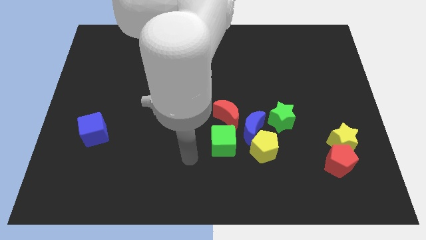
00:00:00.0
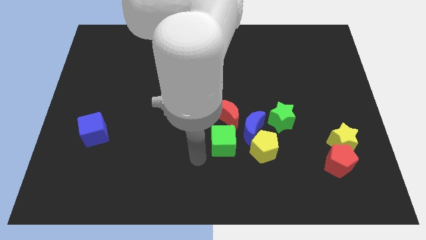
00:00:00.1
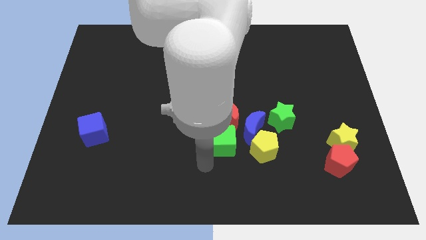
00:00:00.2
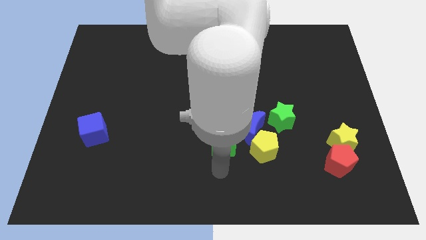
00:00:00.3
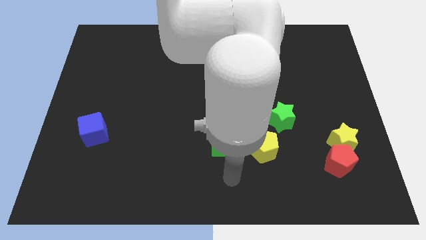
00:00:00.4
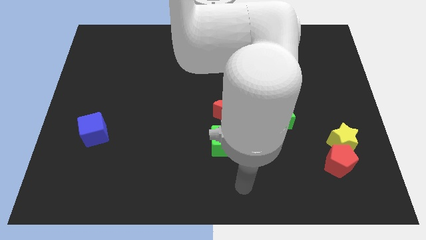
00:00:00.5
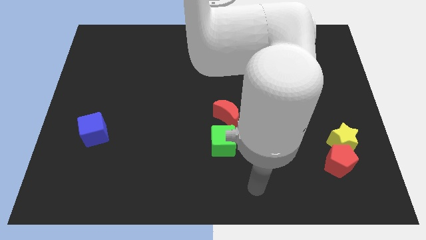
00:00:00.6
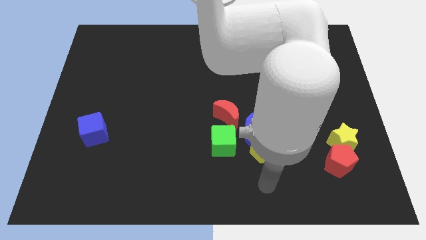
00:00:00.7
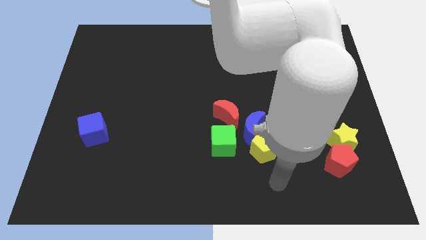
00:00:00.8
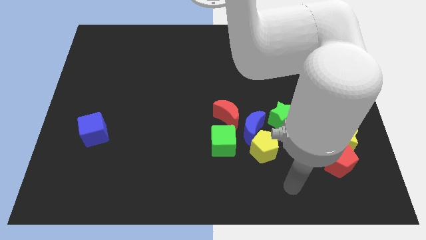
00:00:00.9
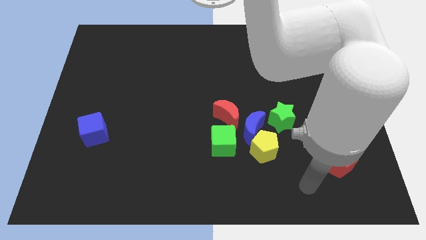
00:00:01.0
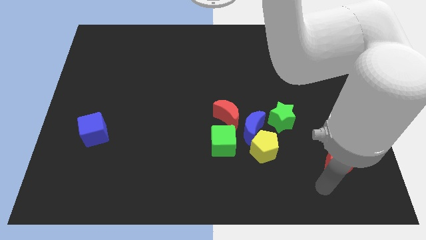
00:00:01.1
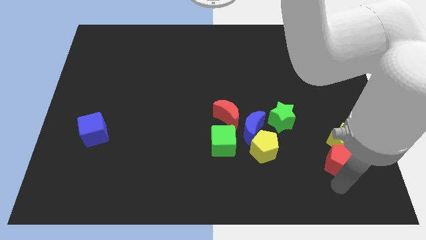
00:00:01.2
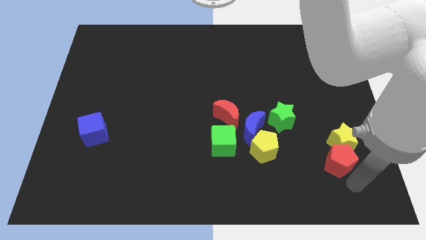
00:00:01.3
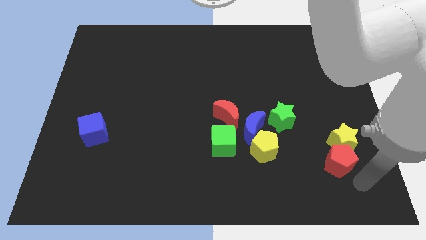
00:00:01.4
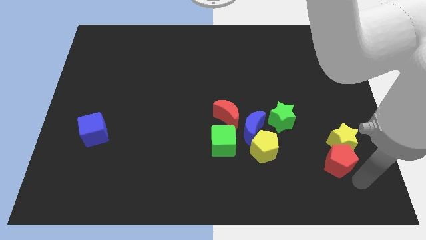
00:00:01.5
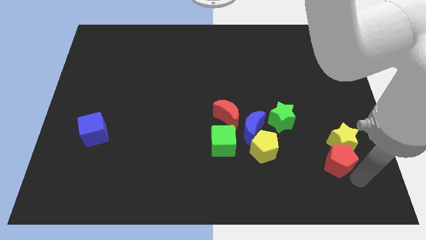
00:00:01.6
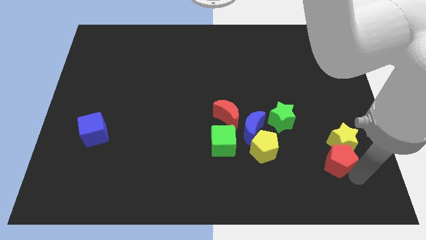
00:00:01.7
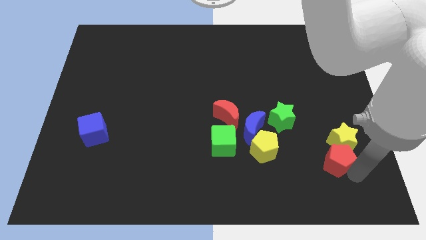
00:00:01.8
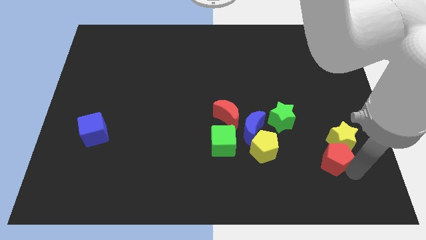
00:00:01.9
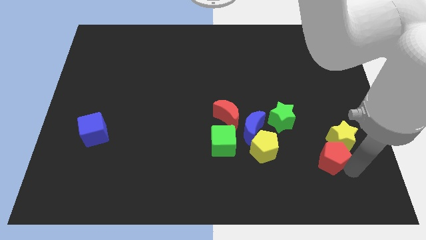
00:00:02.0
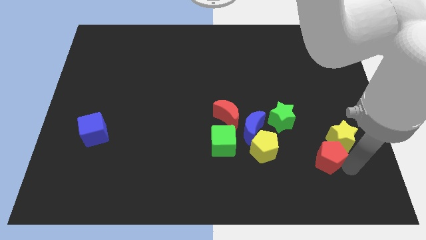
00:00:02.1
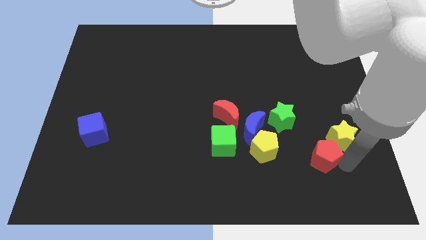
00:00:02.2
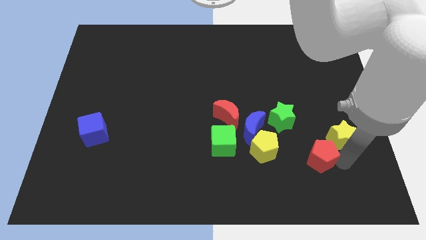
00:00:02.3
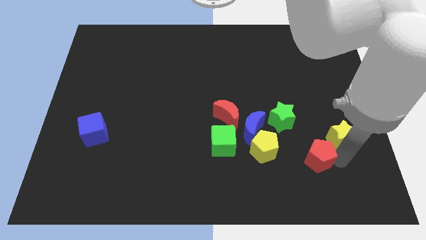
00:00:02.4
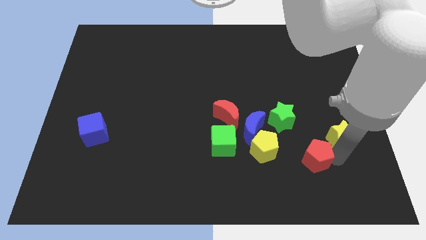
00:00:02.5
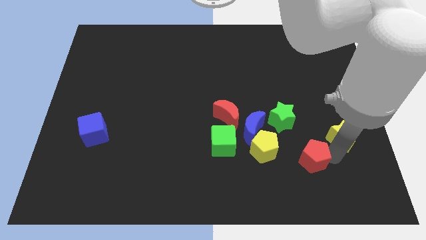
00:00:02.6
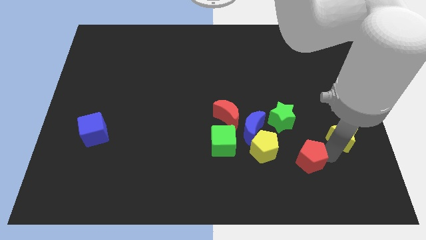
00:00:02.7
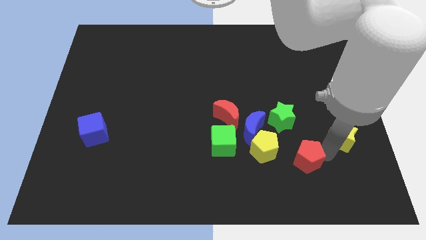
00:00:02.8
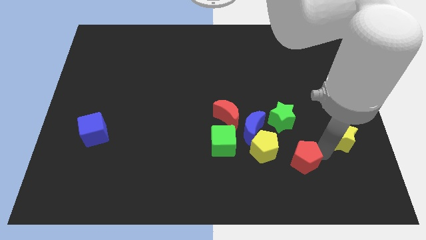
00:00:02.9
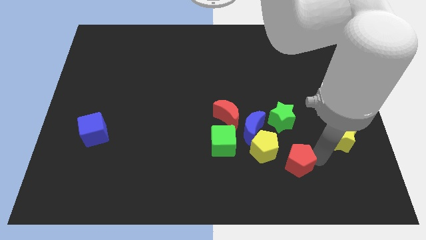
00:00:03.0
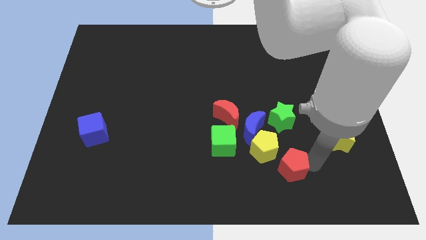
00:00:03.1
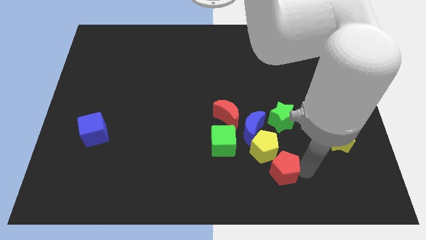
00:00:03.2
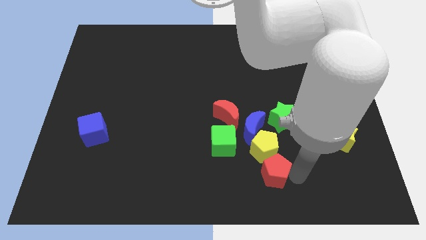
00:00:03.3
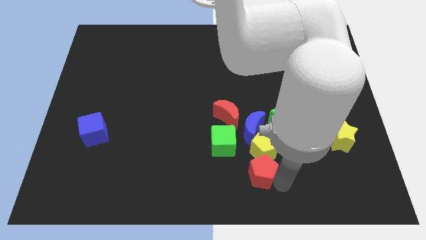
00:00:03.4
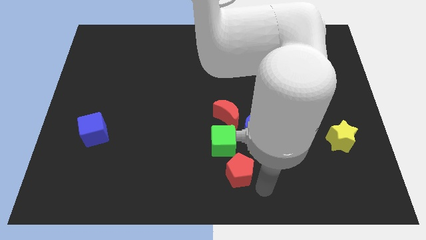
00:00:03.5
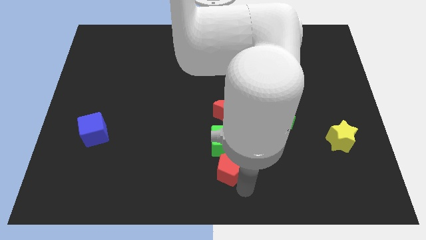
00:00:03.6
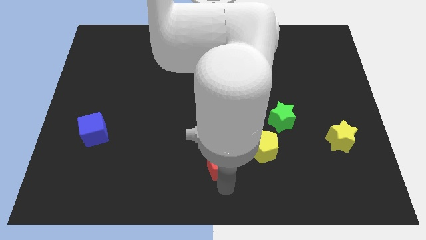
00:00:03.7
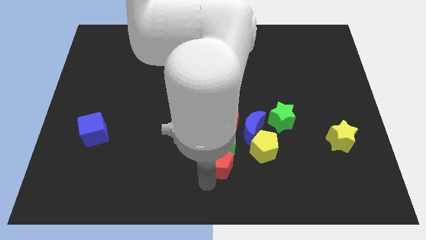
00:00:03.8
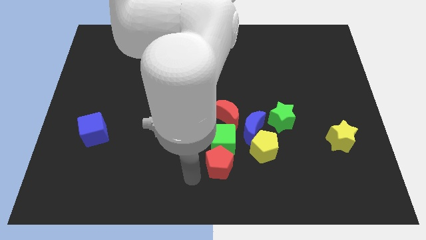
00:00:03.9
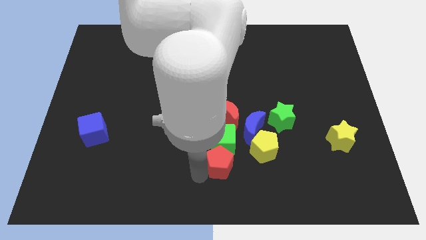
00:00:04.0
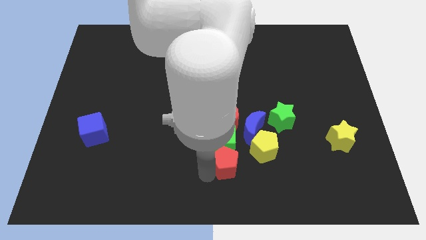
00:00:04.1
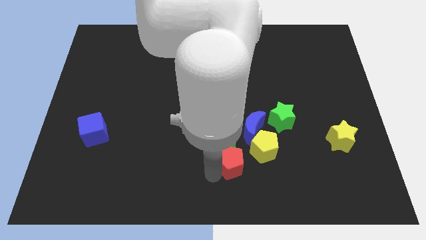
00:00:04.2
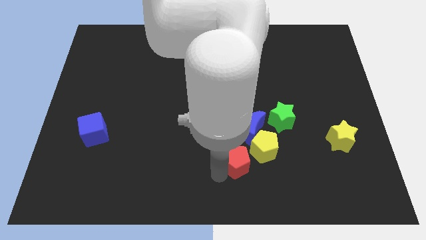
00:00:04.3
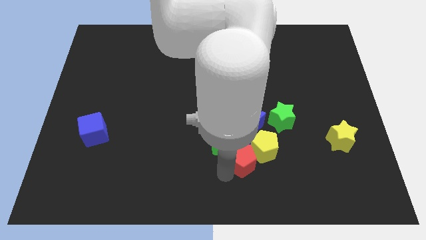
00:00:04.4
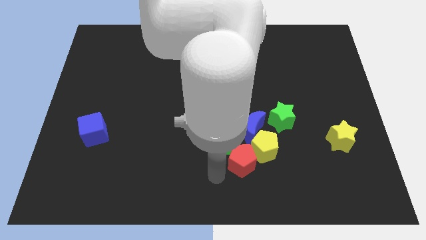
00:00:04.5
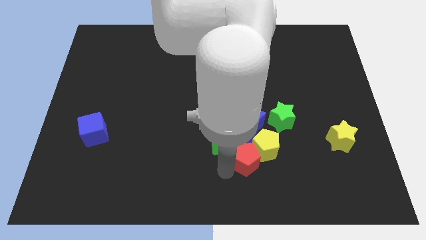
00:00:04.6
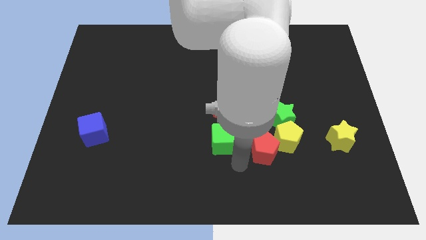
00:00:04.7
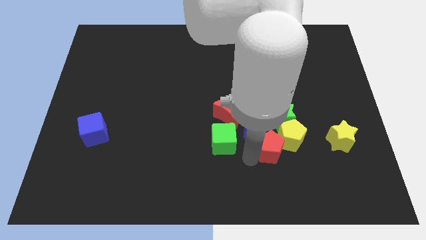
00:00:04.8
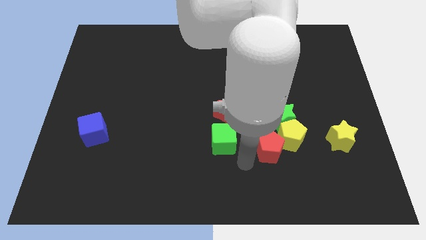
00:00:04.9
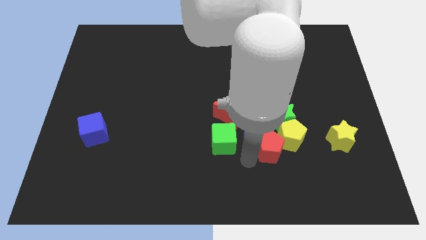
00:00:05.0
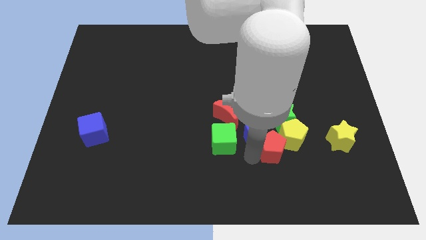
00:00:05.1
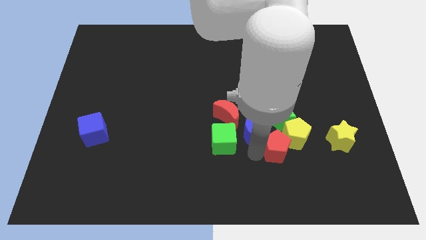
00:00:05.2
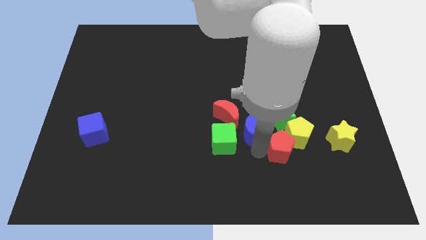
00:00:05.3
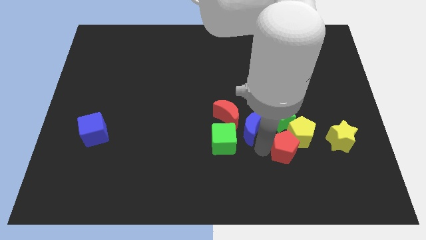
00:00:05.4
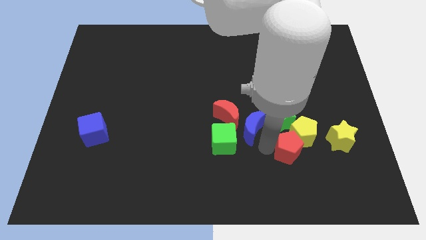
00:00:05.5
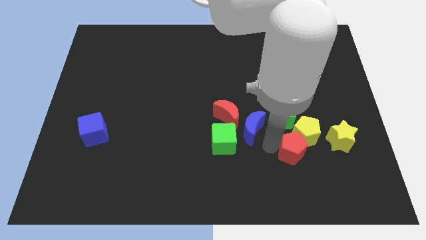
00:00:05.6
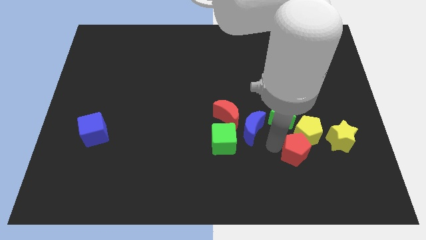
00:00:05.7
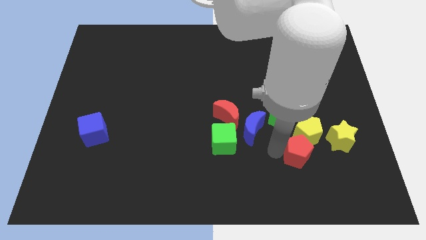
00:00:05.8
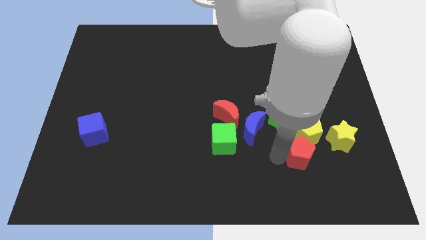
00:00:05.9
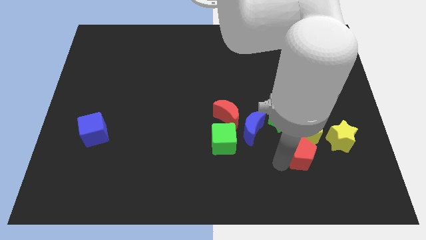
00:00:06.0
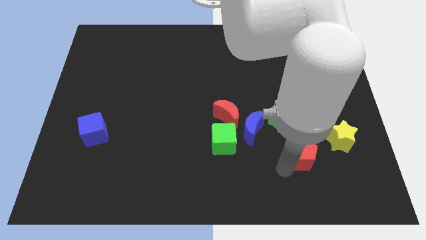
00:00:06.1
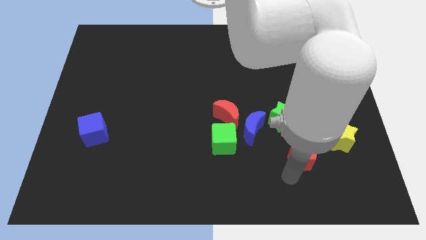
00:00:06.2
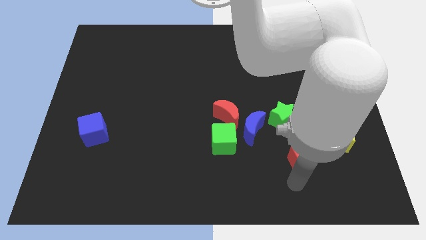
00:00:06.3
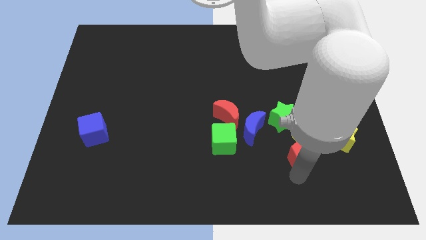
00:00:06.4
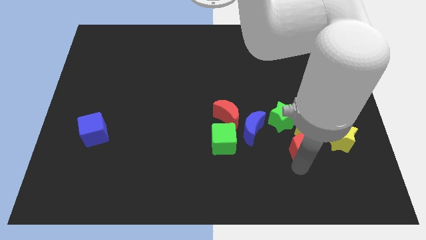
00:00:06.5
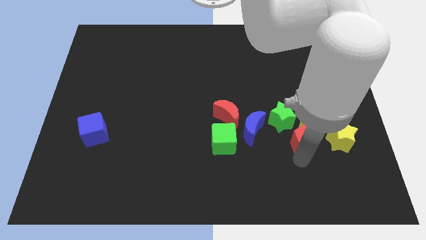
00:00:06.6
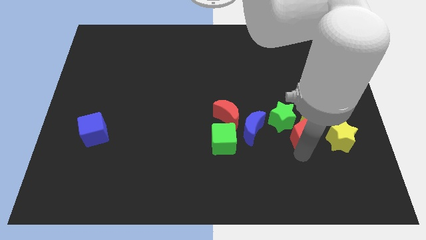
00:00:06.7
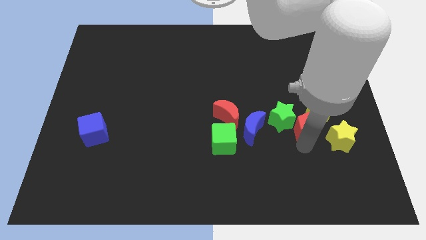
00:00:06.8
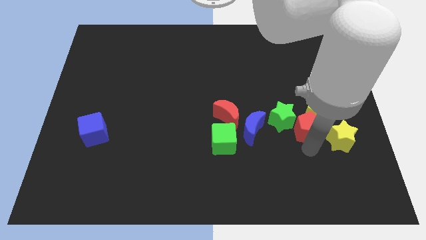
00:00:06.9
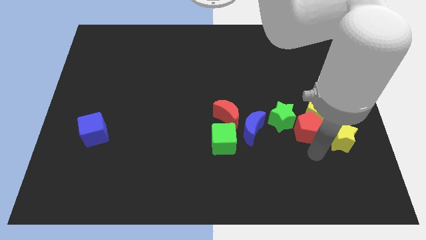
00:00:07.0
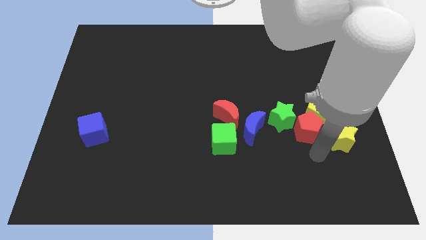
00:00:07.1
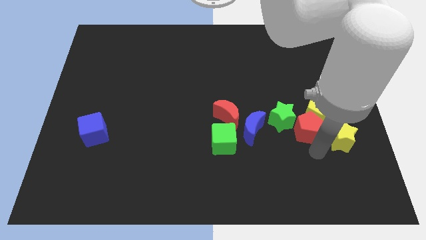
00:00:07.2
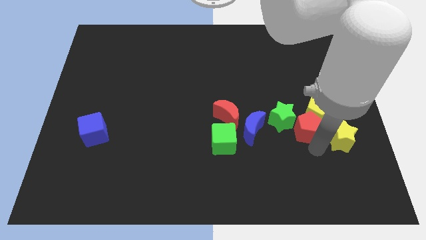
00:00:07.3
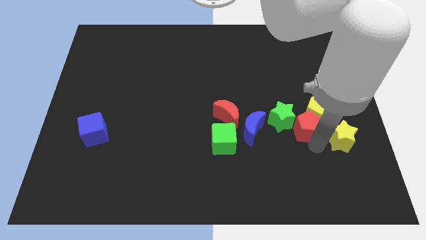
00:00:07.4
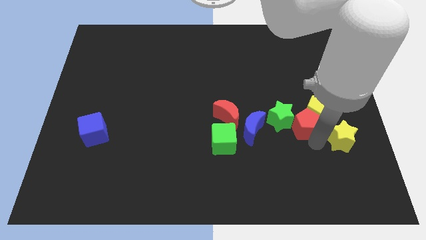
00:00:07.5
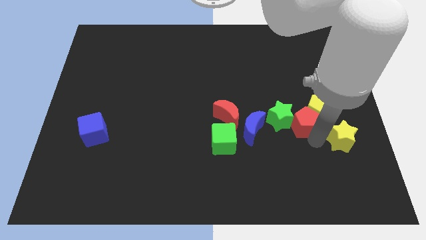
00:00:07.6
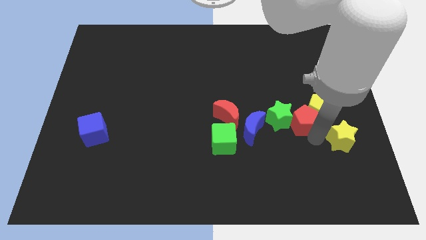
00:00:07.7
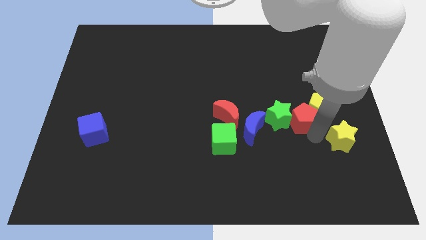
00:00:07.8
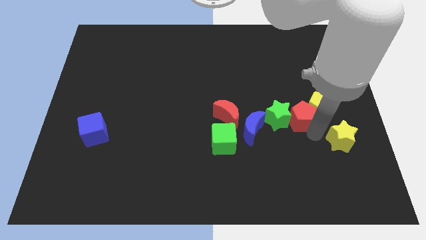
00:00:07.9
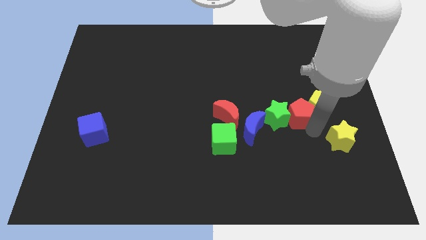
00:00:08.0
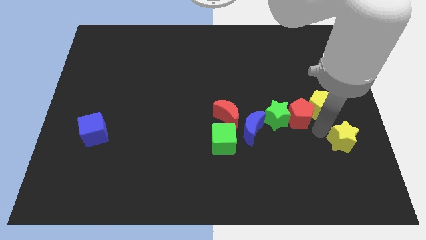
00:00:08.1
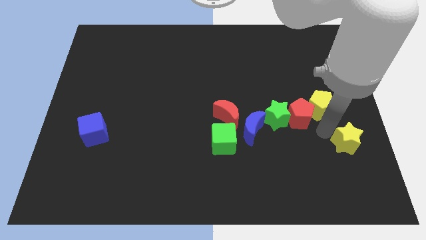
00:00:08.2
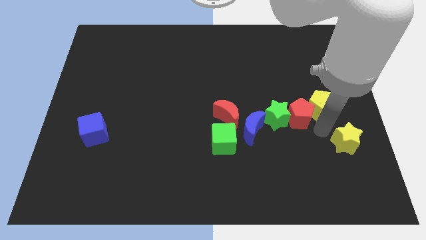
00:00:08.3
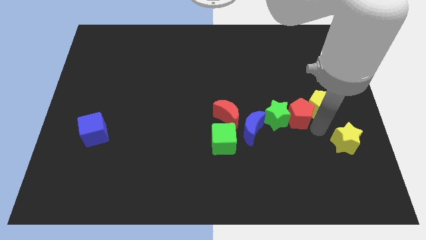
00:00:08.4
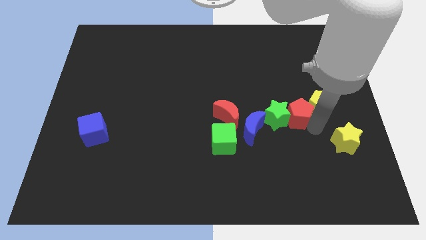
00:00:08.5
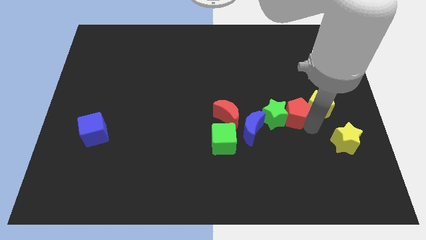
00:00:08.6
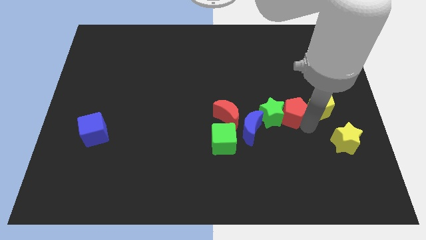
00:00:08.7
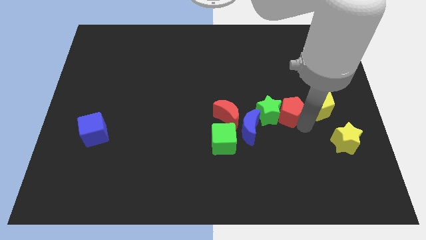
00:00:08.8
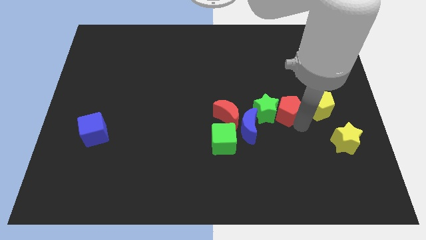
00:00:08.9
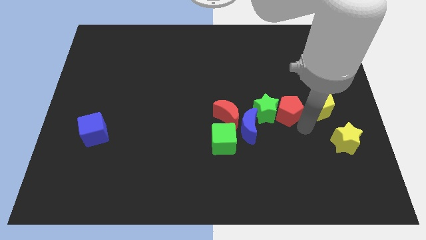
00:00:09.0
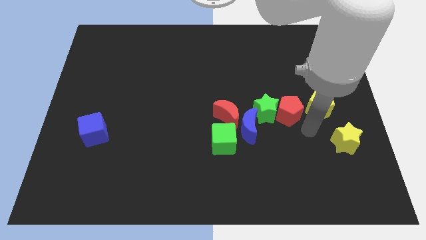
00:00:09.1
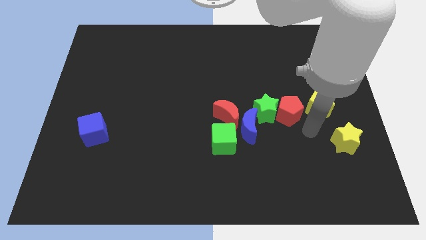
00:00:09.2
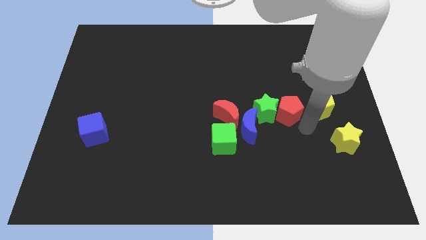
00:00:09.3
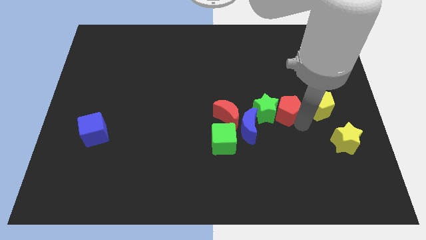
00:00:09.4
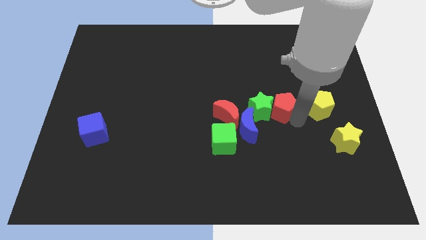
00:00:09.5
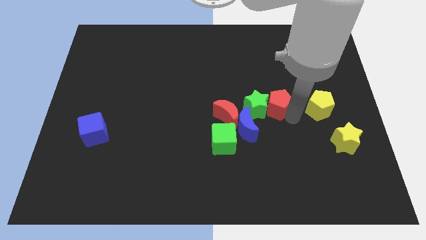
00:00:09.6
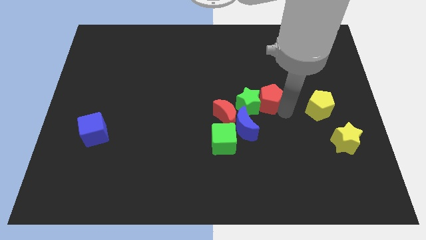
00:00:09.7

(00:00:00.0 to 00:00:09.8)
move the red pentagon diagonally up and to the left
